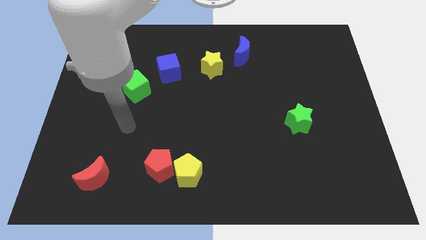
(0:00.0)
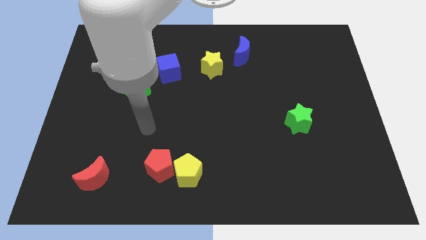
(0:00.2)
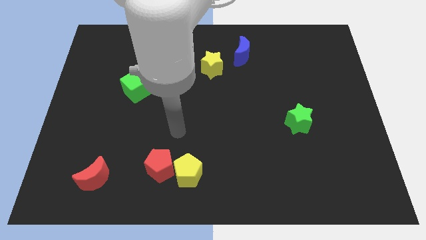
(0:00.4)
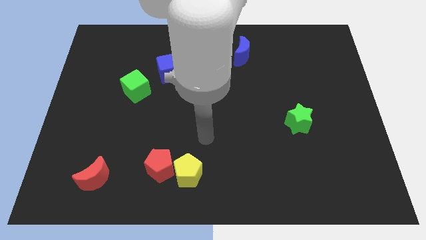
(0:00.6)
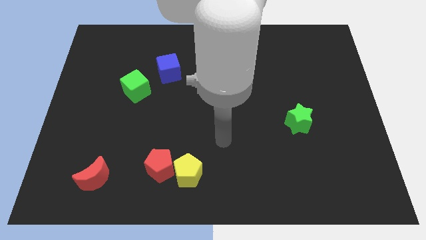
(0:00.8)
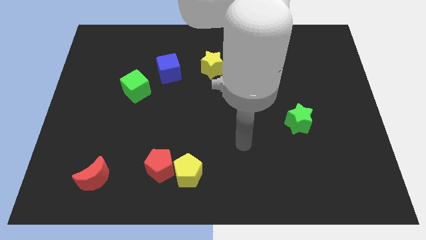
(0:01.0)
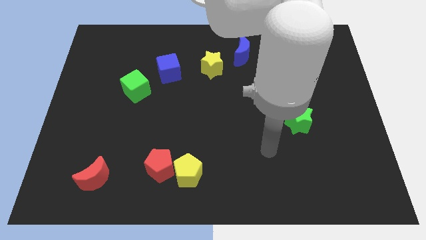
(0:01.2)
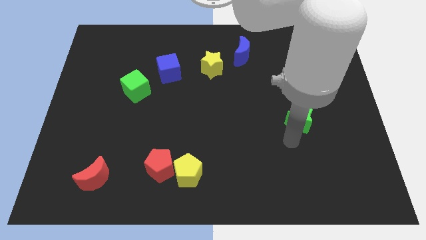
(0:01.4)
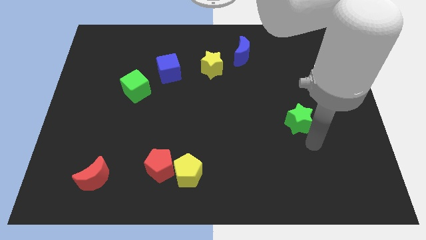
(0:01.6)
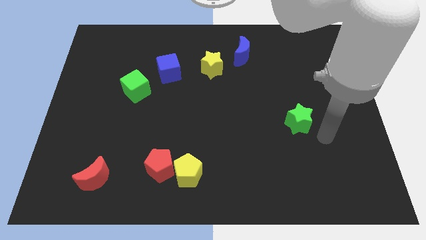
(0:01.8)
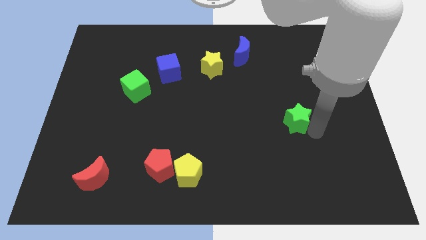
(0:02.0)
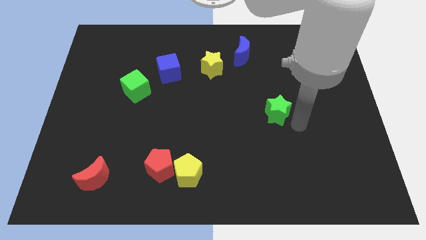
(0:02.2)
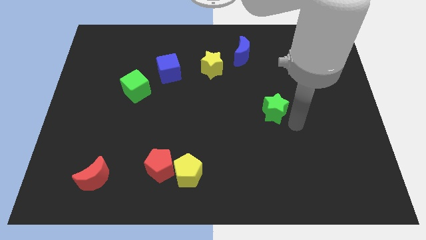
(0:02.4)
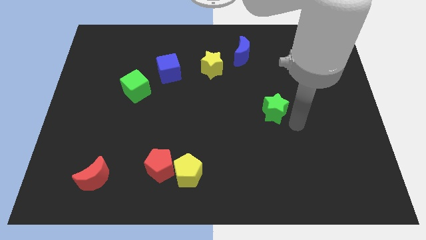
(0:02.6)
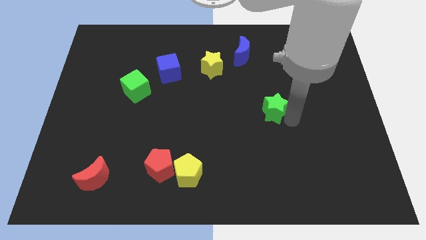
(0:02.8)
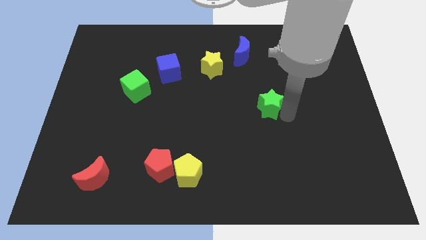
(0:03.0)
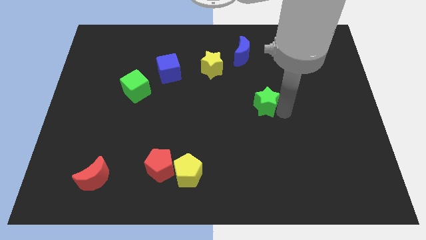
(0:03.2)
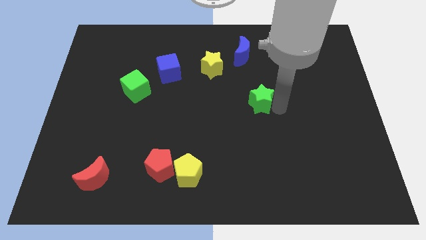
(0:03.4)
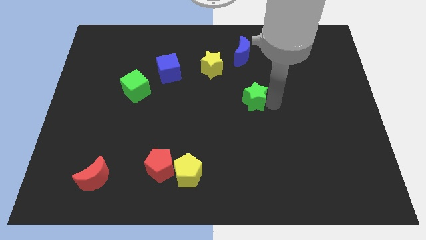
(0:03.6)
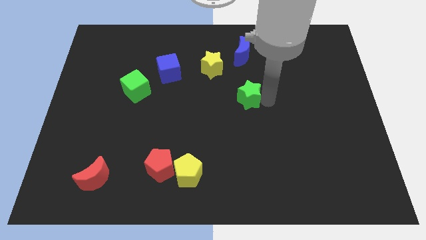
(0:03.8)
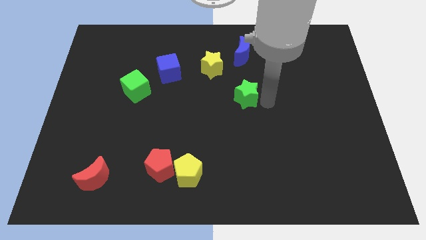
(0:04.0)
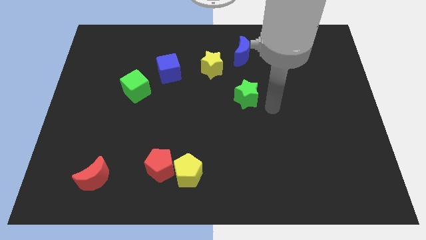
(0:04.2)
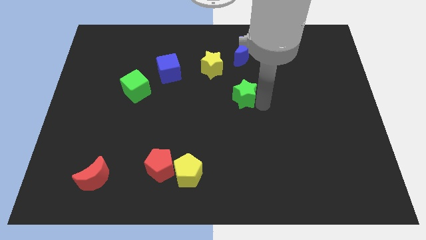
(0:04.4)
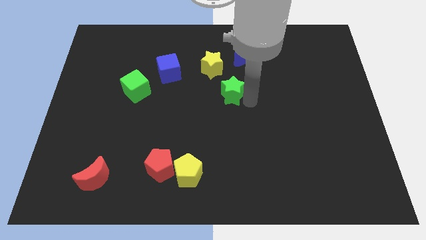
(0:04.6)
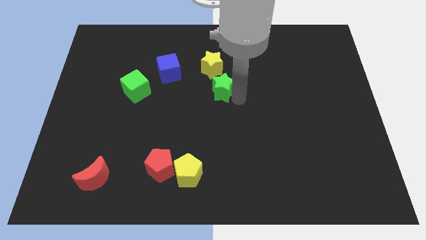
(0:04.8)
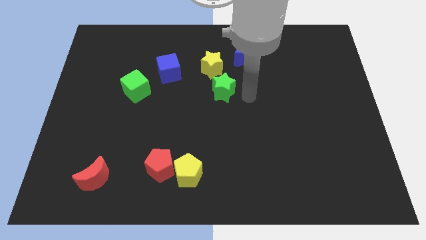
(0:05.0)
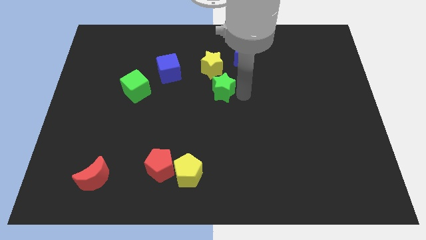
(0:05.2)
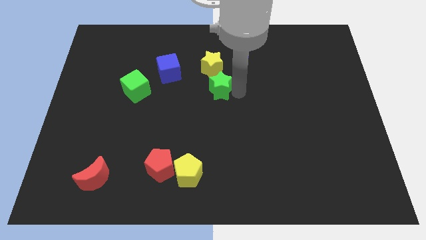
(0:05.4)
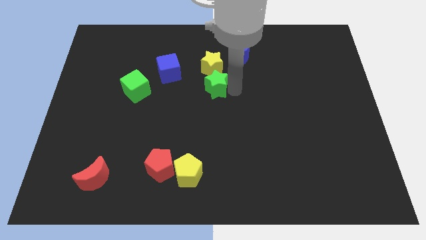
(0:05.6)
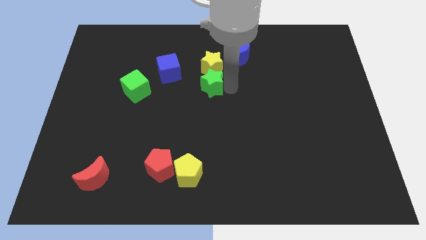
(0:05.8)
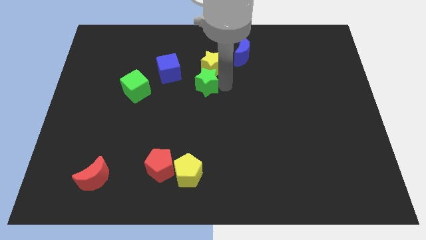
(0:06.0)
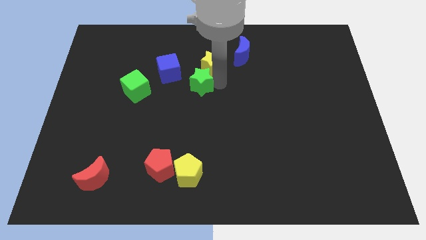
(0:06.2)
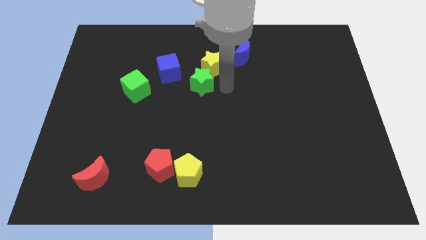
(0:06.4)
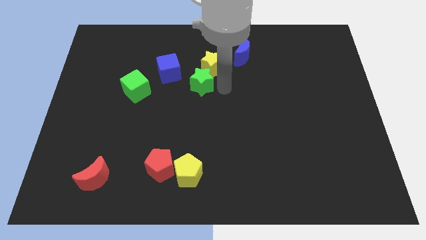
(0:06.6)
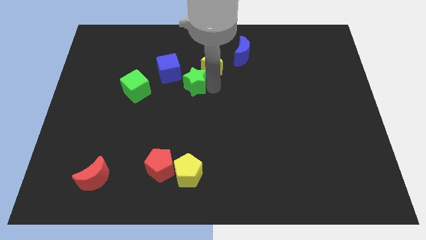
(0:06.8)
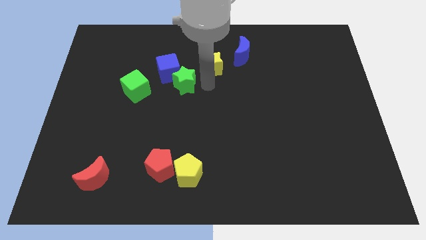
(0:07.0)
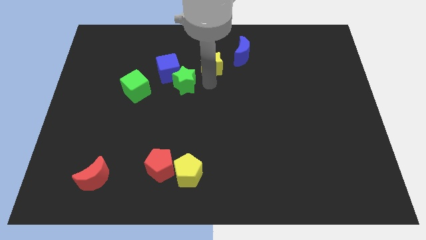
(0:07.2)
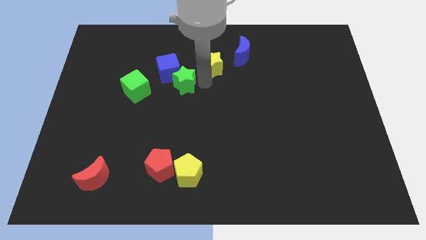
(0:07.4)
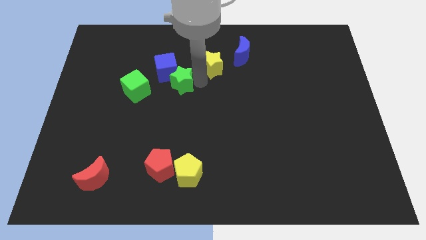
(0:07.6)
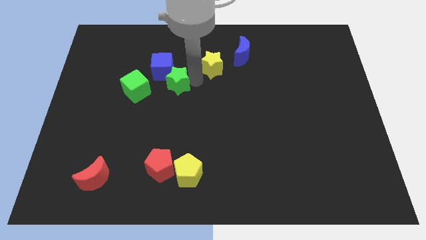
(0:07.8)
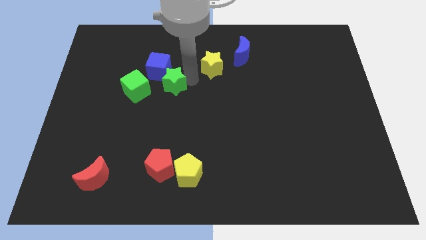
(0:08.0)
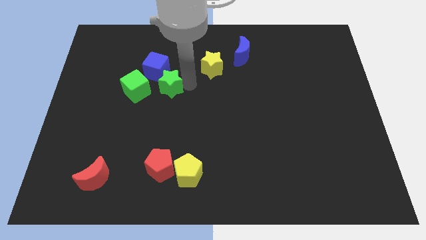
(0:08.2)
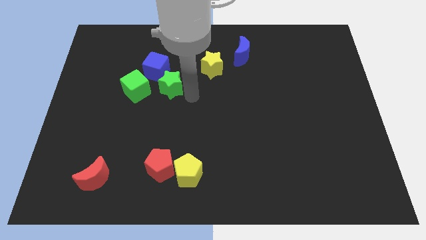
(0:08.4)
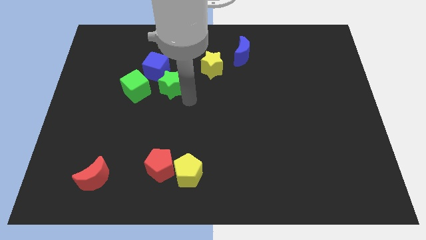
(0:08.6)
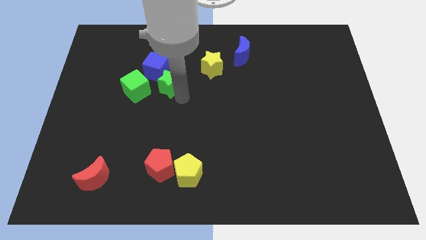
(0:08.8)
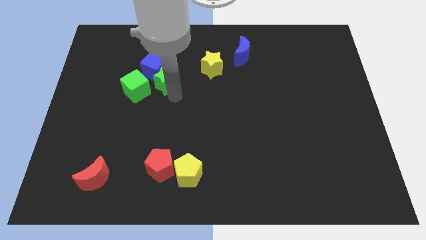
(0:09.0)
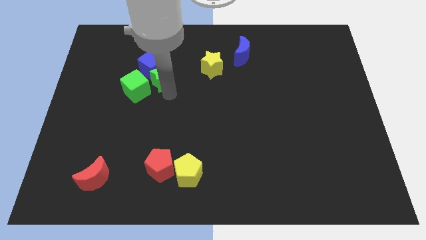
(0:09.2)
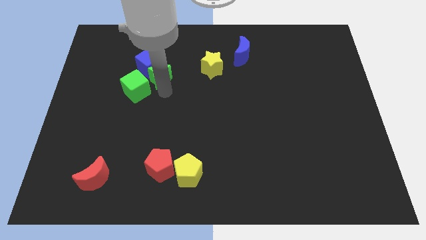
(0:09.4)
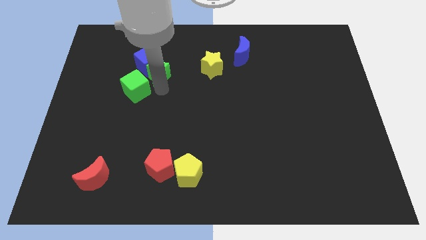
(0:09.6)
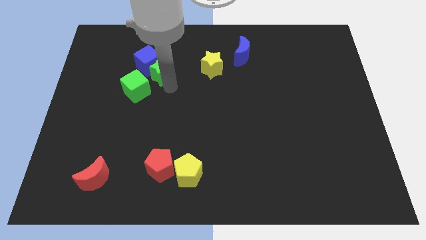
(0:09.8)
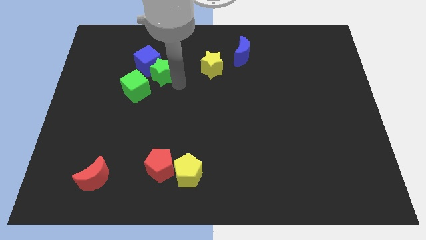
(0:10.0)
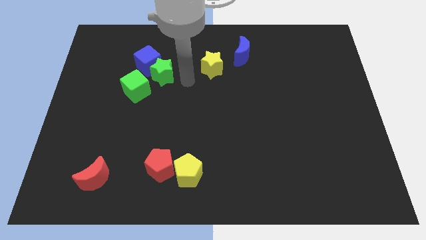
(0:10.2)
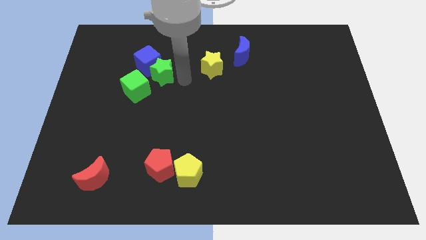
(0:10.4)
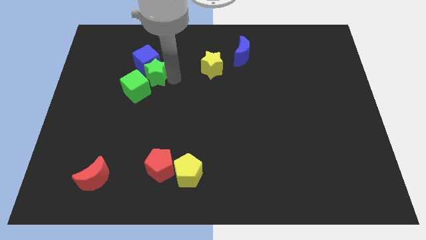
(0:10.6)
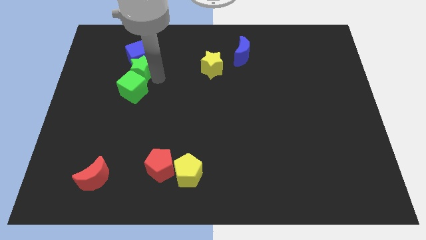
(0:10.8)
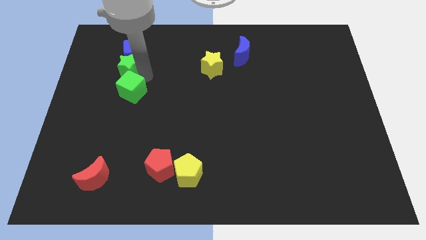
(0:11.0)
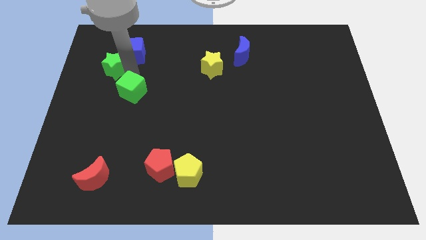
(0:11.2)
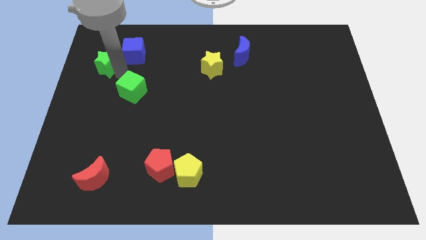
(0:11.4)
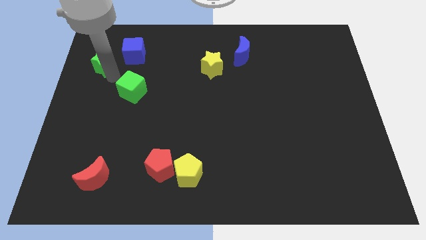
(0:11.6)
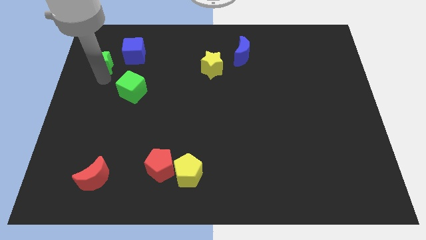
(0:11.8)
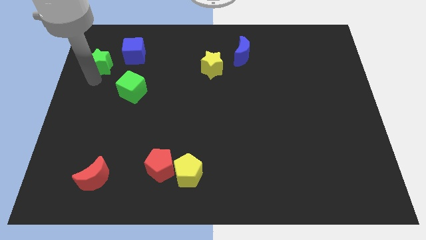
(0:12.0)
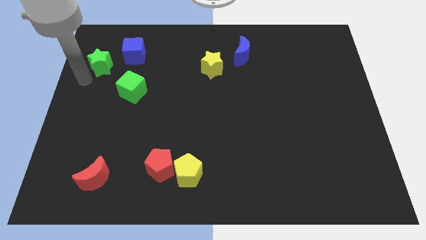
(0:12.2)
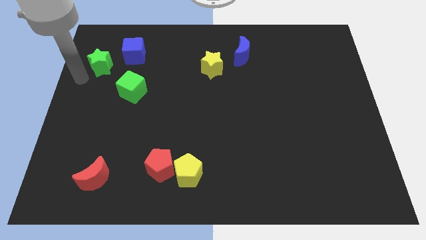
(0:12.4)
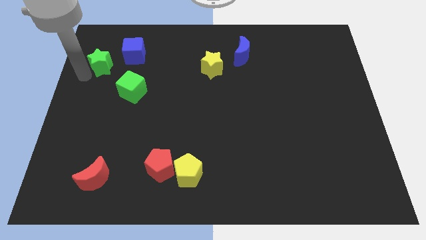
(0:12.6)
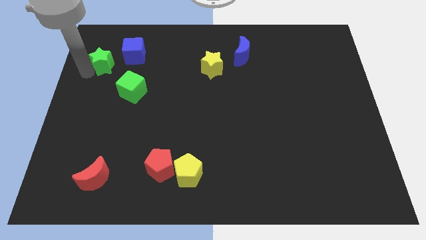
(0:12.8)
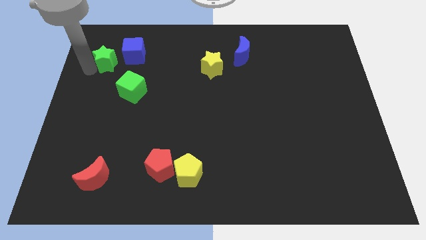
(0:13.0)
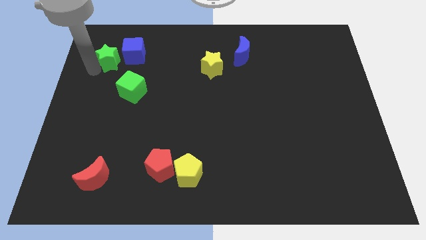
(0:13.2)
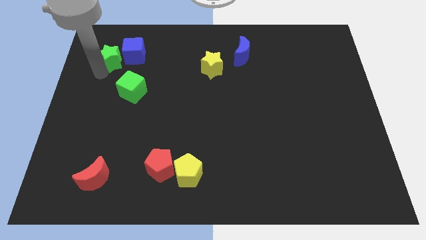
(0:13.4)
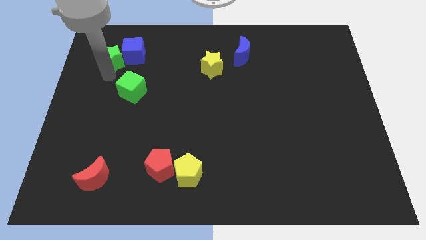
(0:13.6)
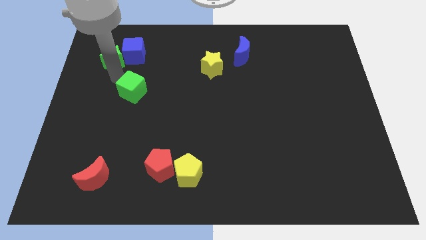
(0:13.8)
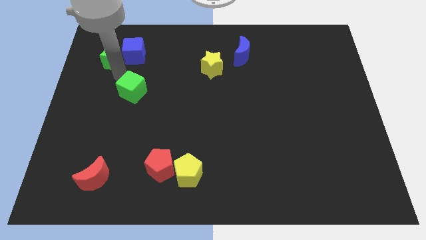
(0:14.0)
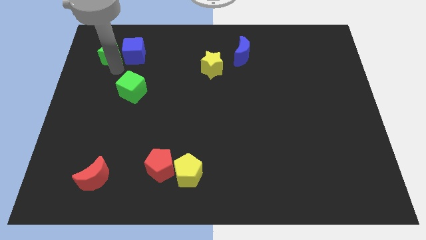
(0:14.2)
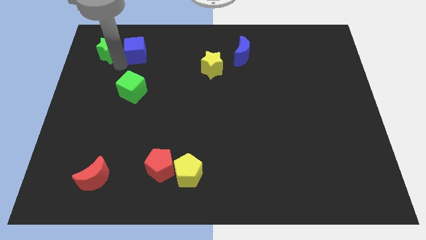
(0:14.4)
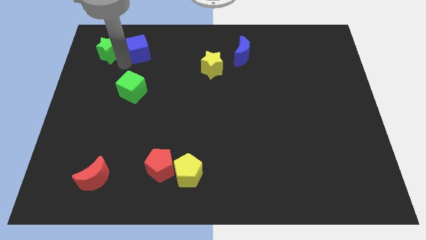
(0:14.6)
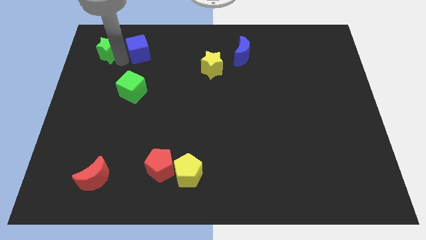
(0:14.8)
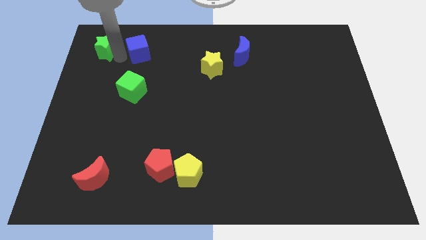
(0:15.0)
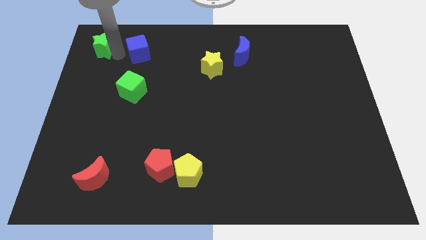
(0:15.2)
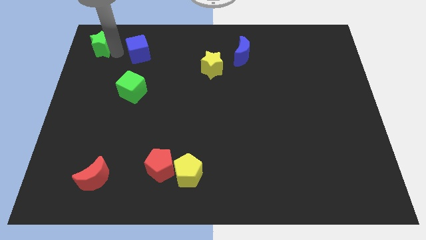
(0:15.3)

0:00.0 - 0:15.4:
push the green star to the top left corner

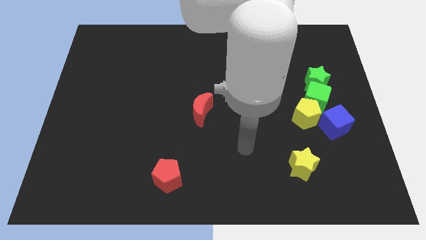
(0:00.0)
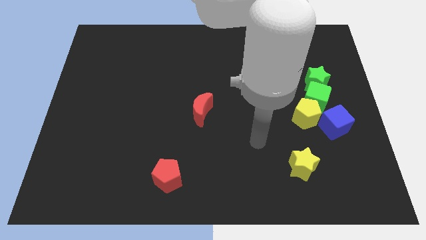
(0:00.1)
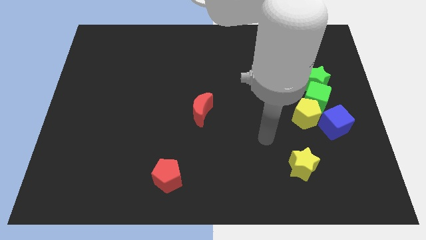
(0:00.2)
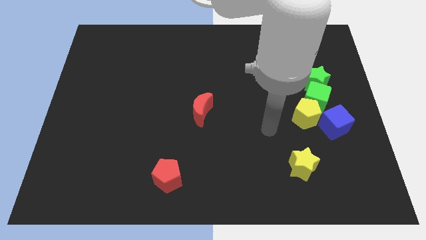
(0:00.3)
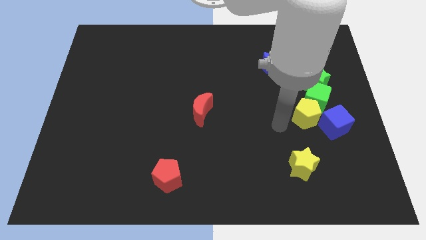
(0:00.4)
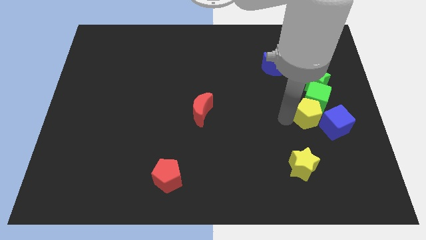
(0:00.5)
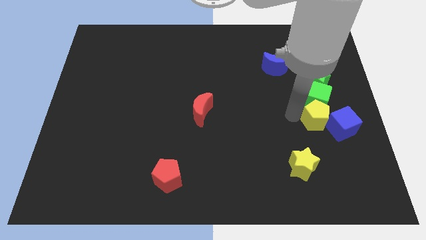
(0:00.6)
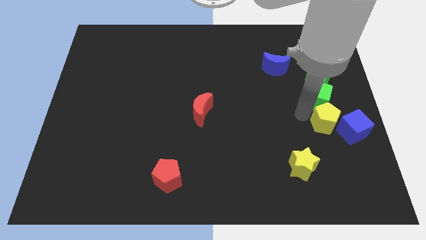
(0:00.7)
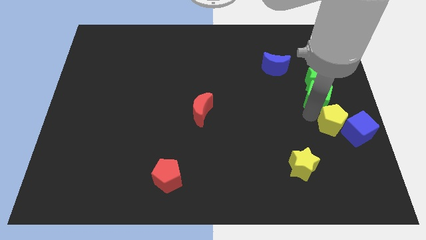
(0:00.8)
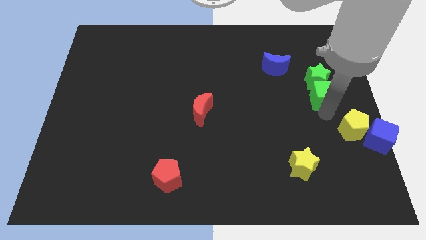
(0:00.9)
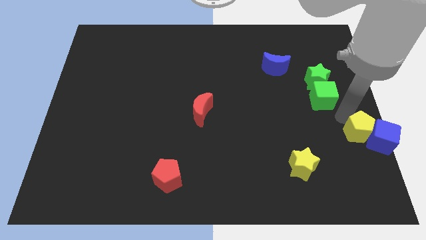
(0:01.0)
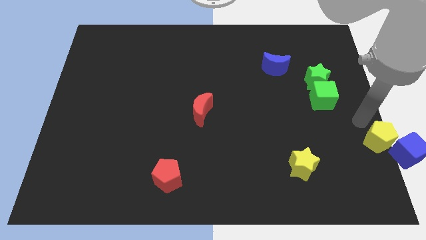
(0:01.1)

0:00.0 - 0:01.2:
put the blue cube to the bottom right
